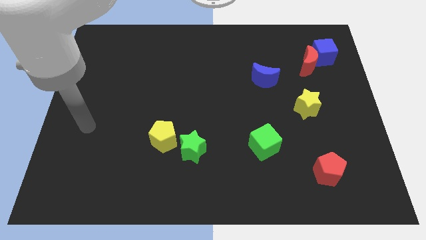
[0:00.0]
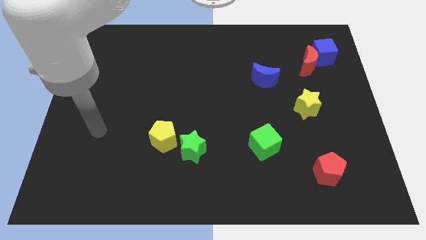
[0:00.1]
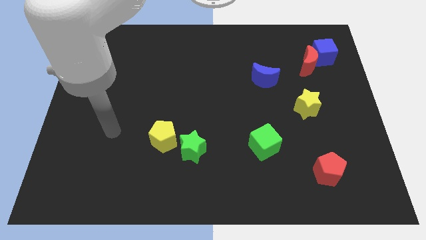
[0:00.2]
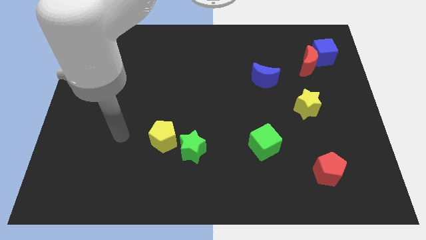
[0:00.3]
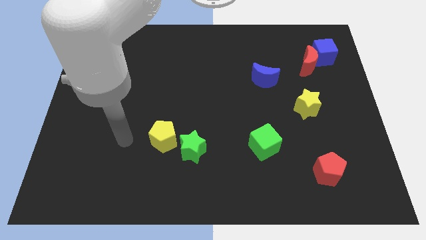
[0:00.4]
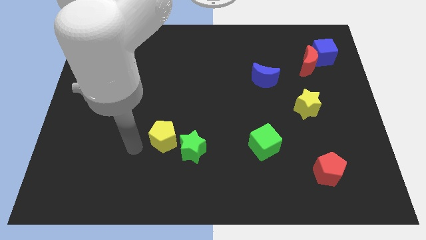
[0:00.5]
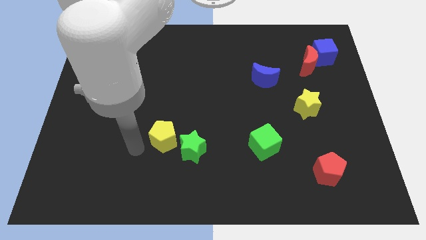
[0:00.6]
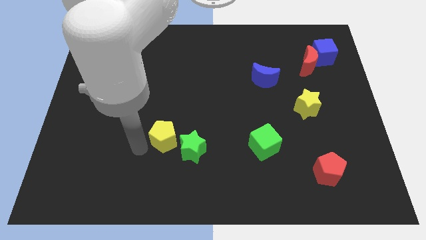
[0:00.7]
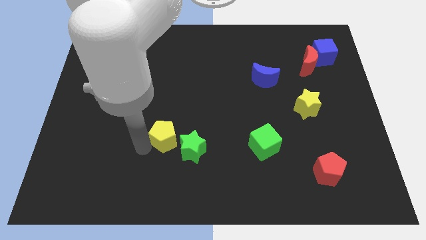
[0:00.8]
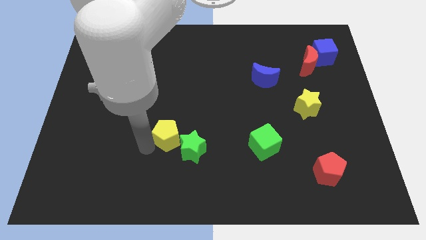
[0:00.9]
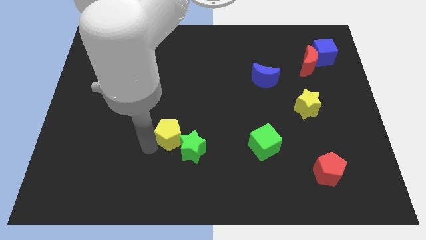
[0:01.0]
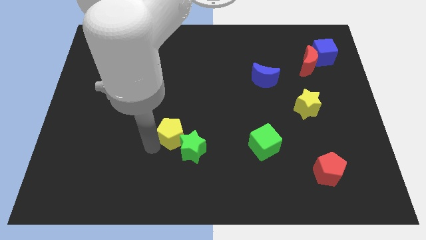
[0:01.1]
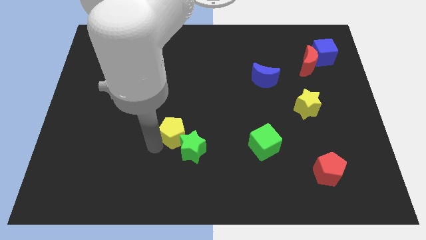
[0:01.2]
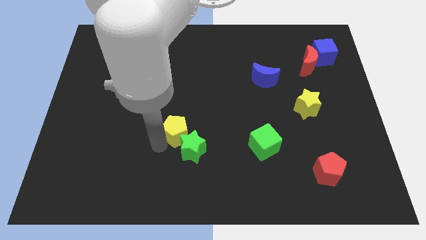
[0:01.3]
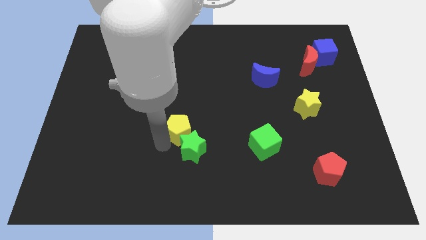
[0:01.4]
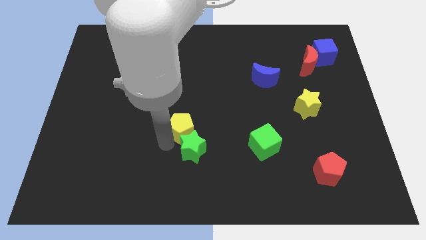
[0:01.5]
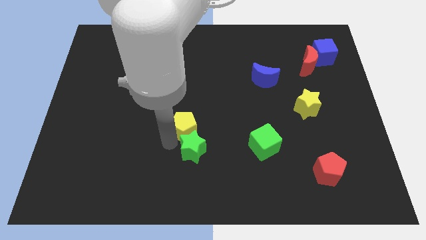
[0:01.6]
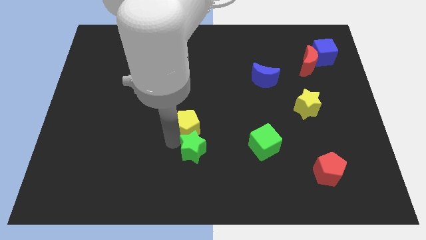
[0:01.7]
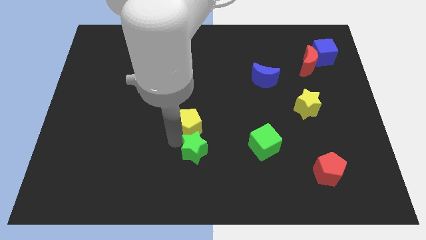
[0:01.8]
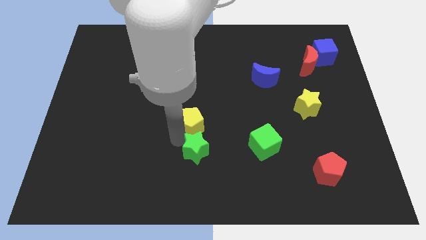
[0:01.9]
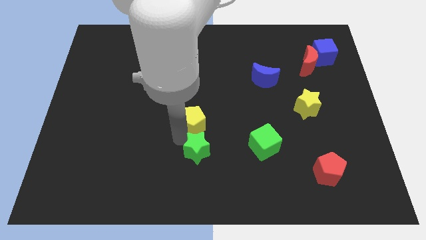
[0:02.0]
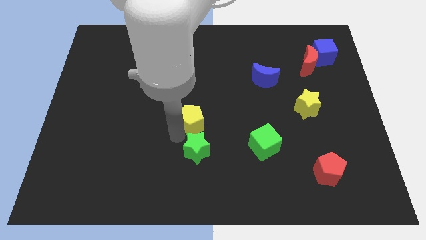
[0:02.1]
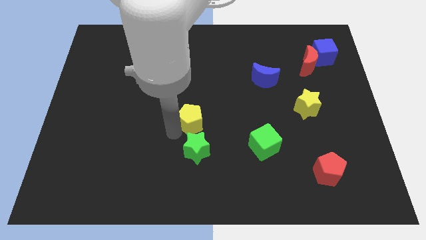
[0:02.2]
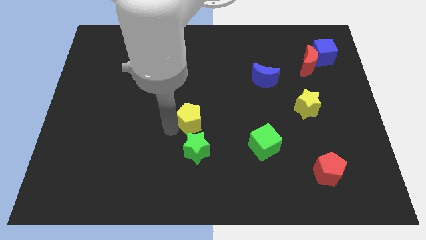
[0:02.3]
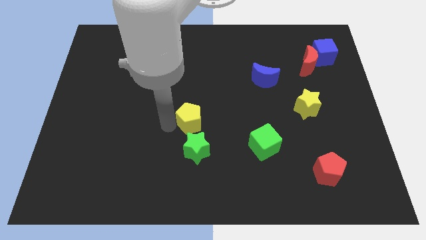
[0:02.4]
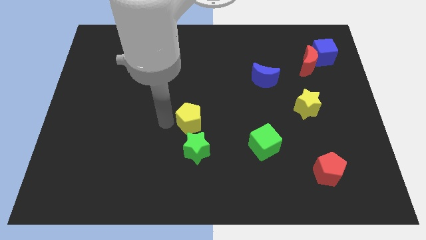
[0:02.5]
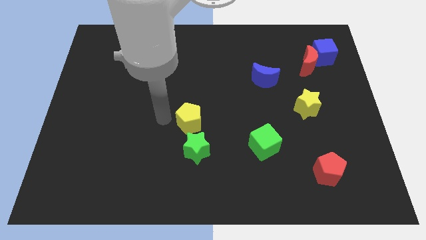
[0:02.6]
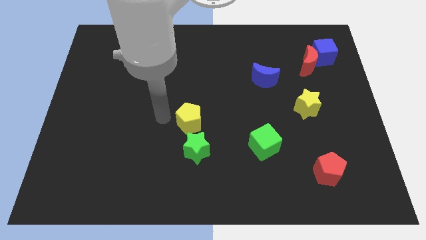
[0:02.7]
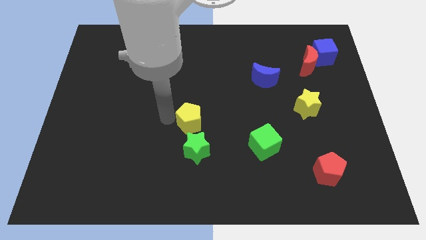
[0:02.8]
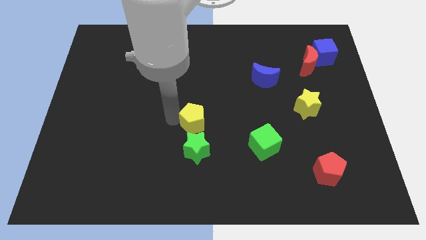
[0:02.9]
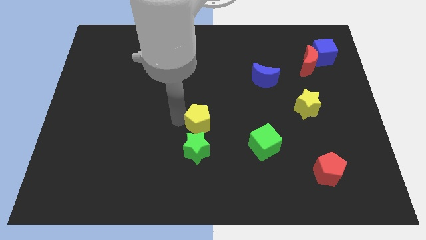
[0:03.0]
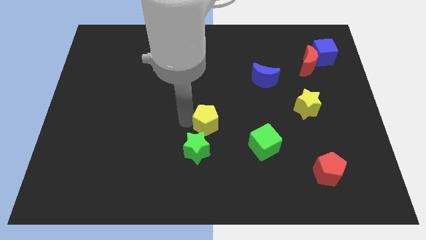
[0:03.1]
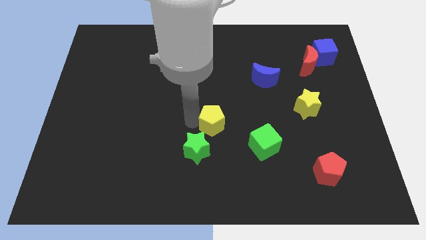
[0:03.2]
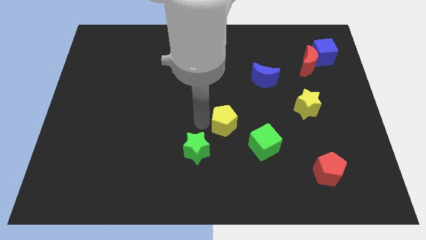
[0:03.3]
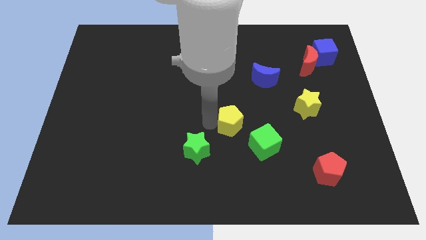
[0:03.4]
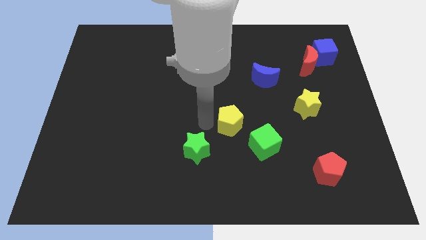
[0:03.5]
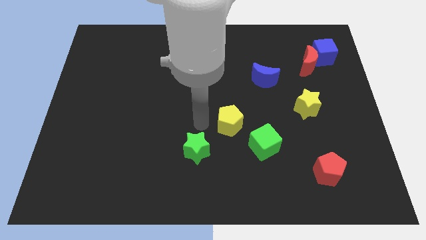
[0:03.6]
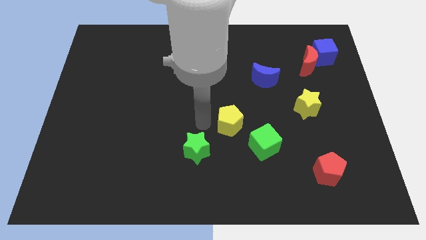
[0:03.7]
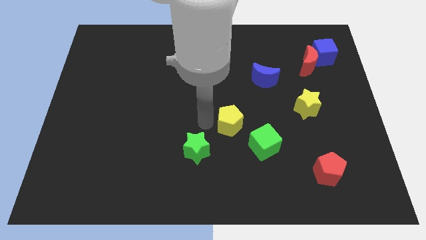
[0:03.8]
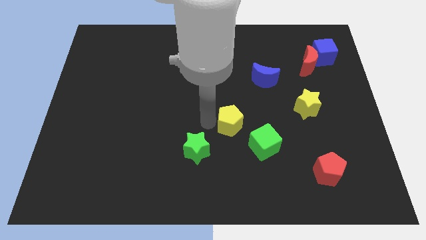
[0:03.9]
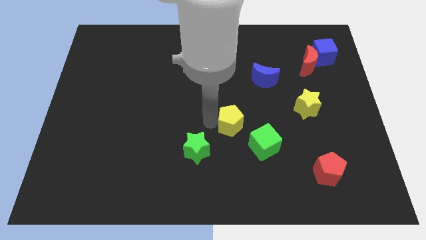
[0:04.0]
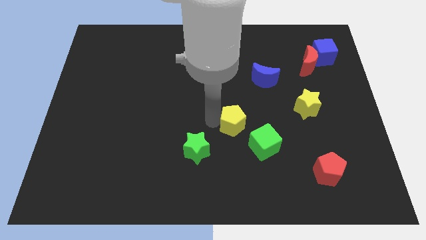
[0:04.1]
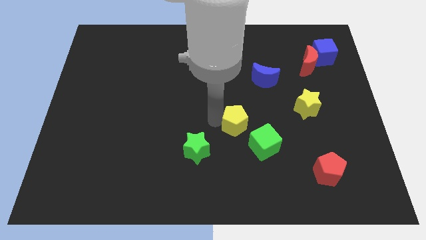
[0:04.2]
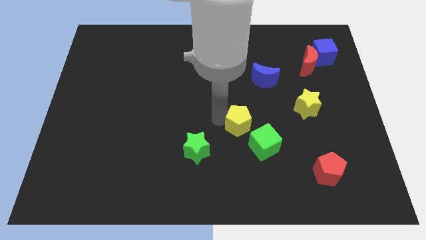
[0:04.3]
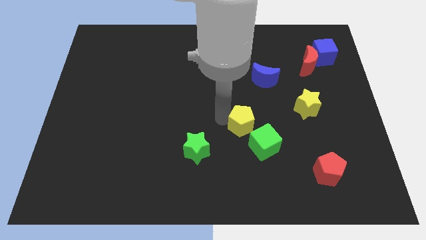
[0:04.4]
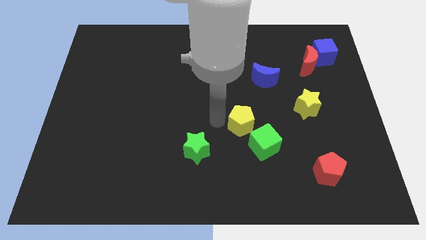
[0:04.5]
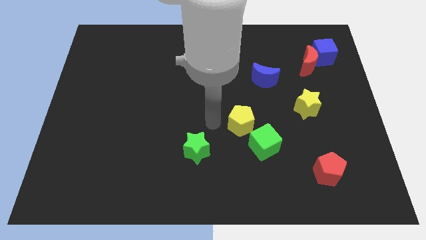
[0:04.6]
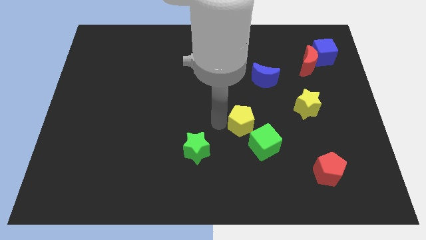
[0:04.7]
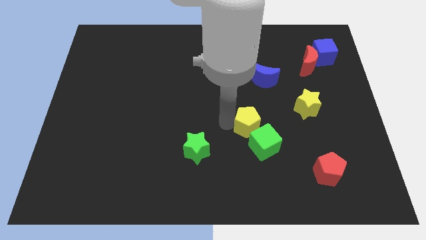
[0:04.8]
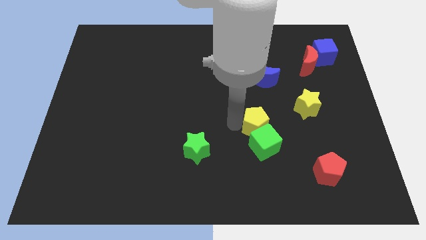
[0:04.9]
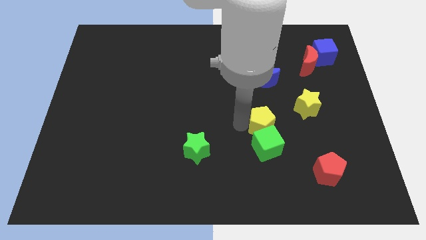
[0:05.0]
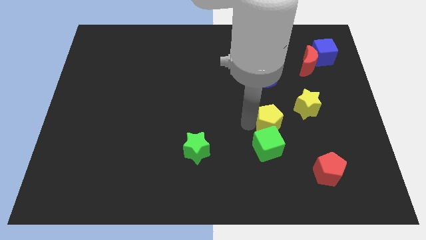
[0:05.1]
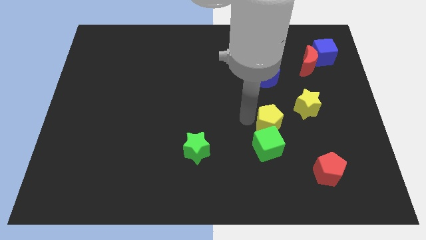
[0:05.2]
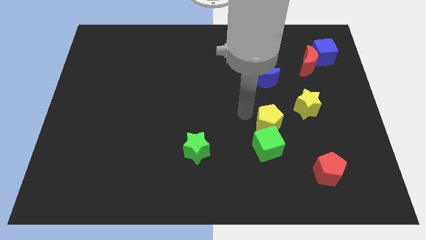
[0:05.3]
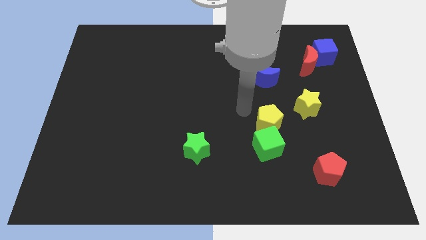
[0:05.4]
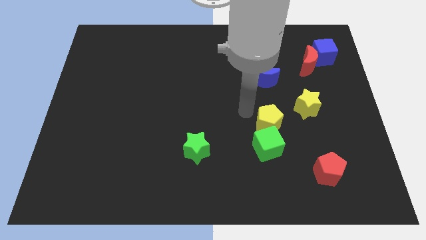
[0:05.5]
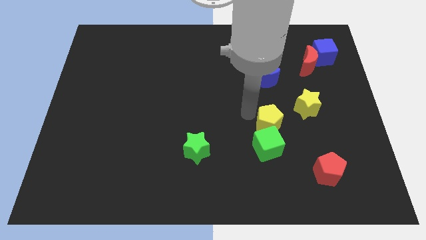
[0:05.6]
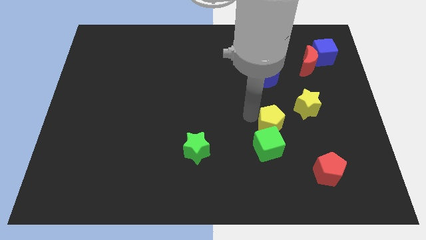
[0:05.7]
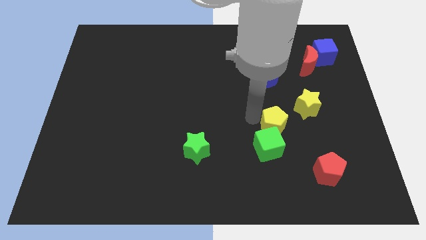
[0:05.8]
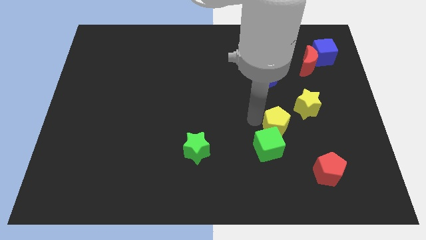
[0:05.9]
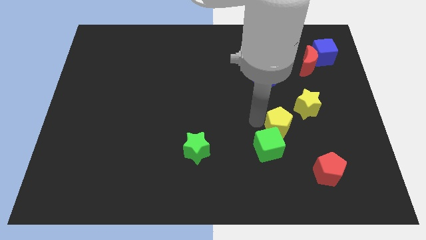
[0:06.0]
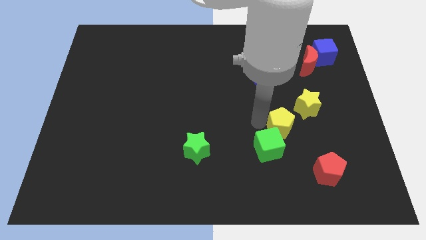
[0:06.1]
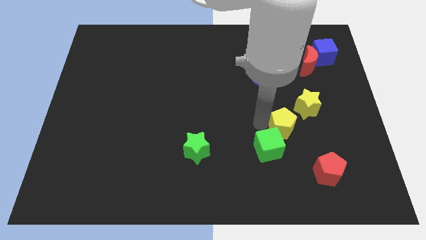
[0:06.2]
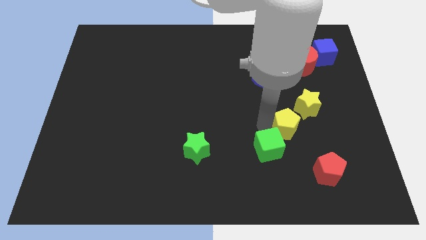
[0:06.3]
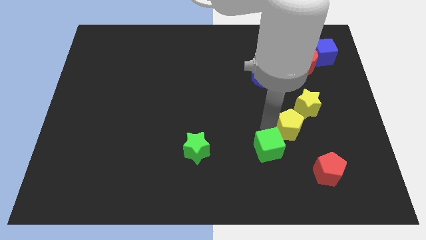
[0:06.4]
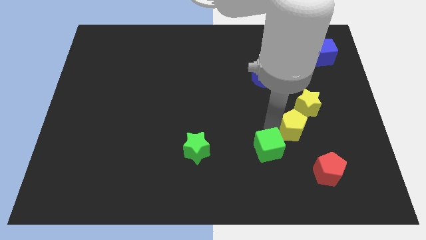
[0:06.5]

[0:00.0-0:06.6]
put the yellow pentagon to the bottom side of the yellow star
